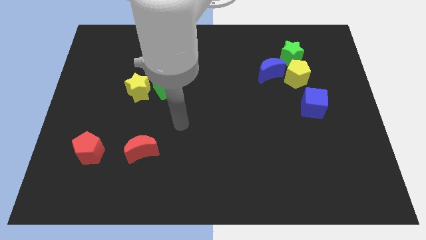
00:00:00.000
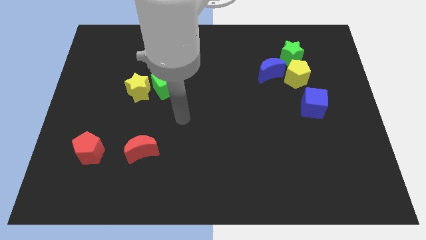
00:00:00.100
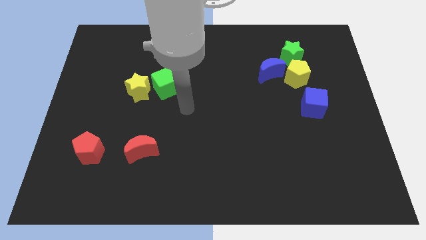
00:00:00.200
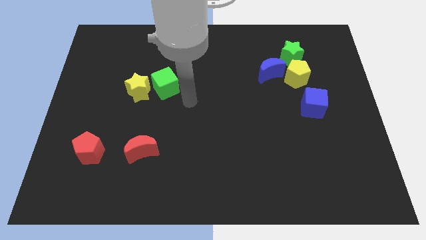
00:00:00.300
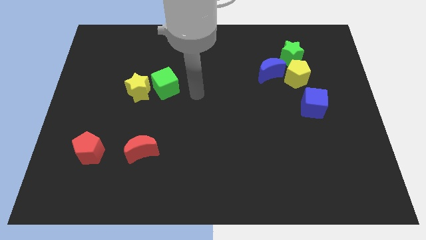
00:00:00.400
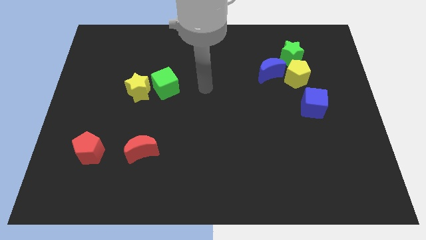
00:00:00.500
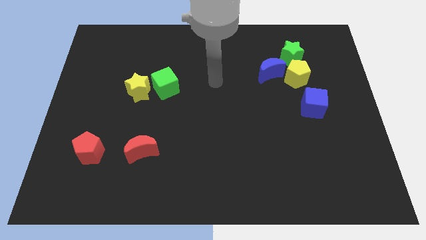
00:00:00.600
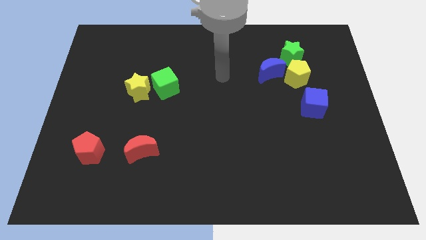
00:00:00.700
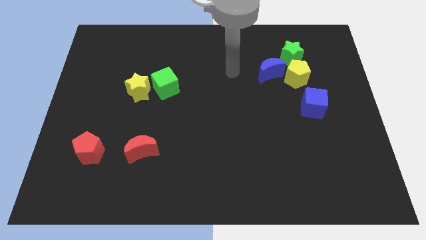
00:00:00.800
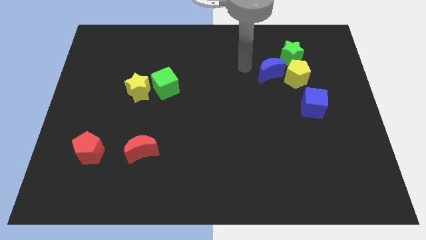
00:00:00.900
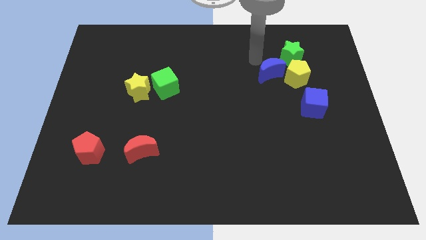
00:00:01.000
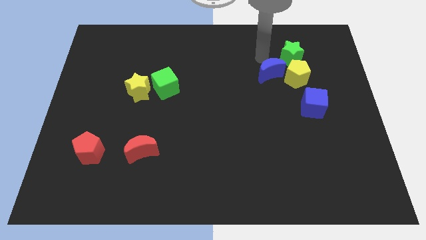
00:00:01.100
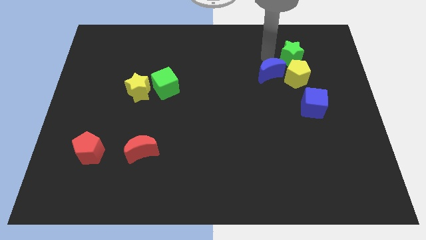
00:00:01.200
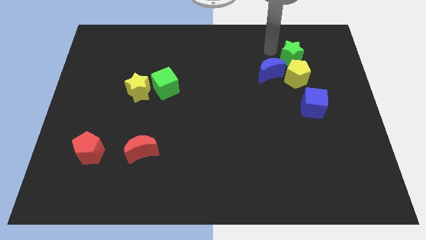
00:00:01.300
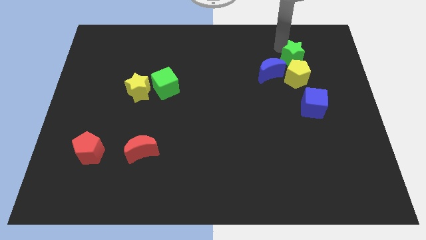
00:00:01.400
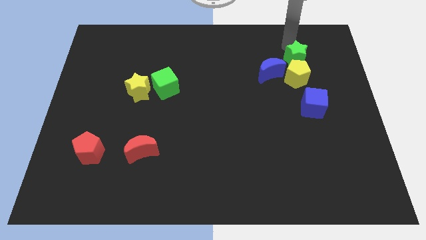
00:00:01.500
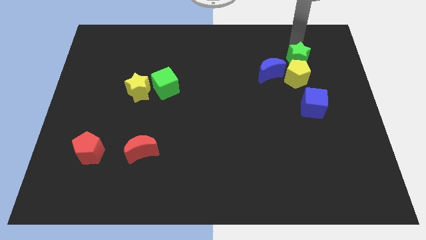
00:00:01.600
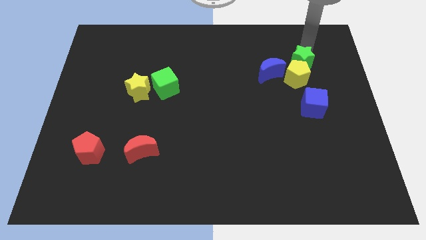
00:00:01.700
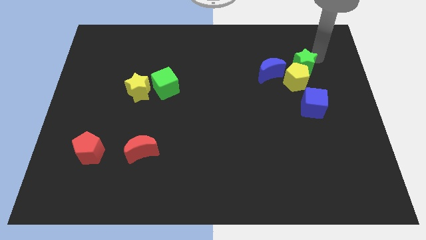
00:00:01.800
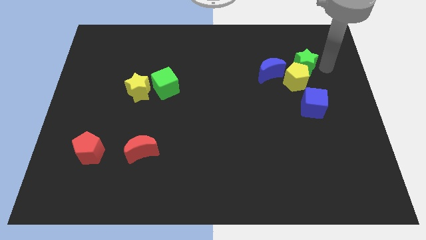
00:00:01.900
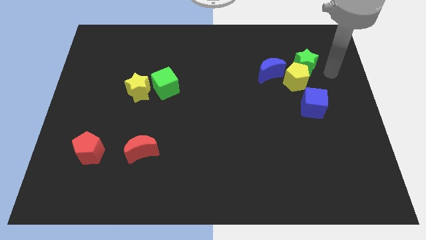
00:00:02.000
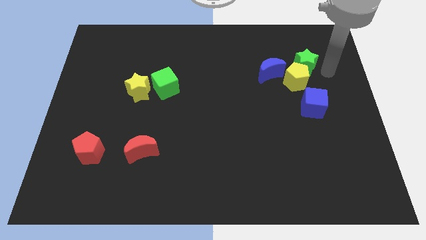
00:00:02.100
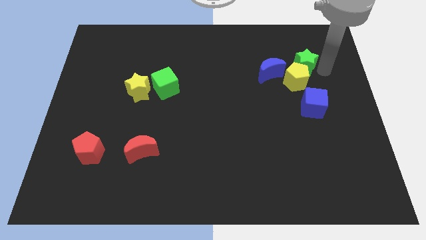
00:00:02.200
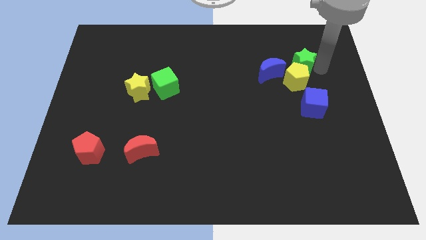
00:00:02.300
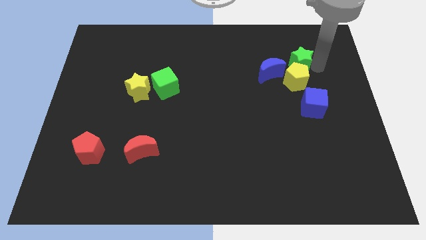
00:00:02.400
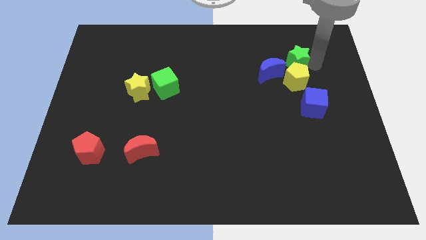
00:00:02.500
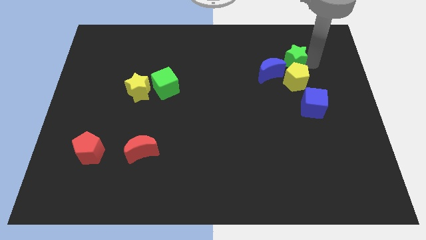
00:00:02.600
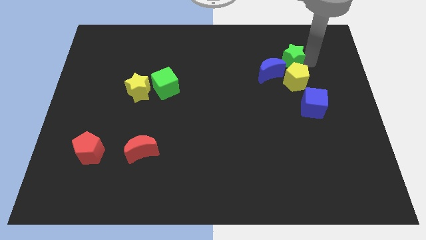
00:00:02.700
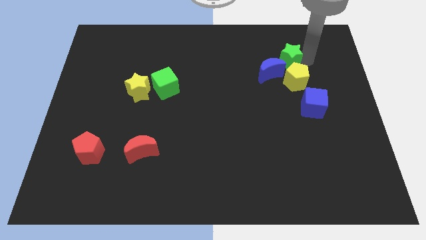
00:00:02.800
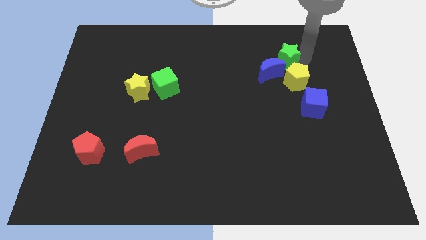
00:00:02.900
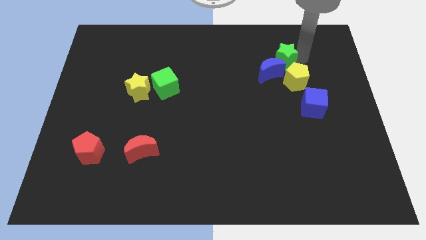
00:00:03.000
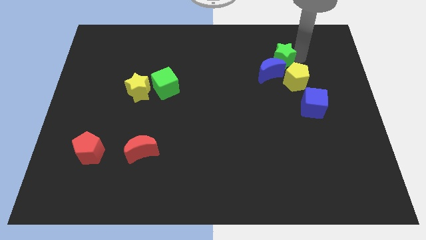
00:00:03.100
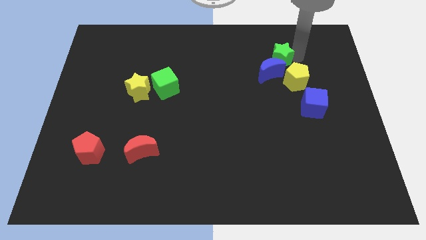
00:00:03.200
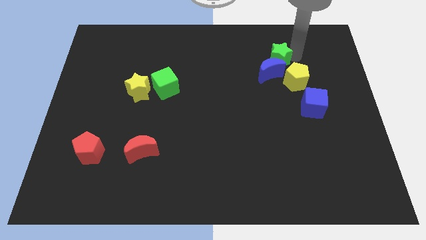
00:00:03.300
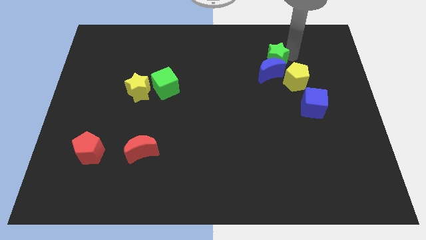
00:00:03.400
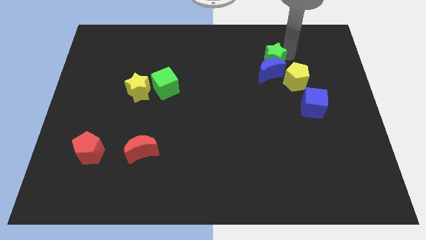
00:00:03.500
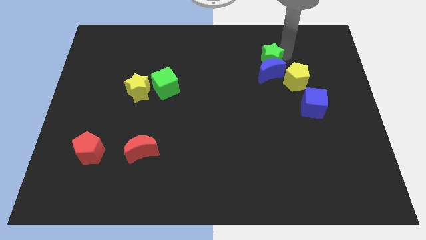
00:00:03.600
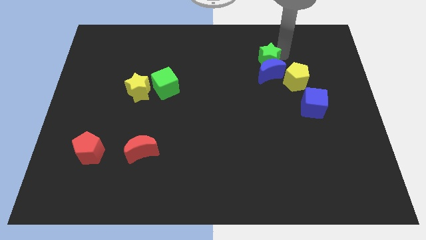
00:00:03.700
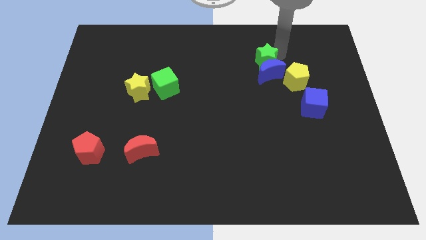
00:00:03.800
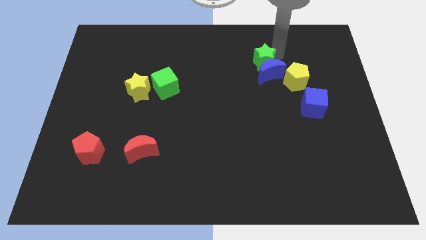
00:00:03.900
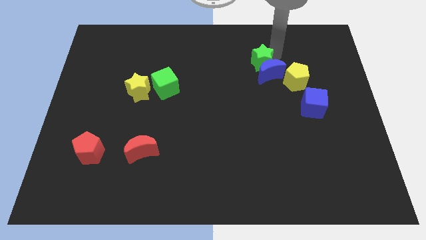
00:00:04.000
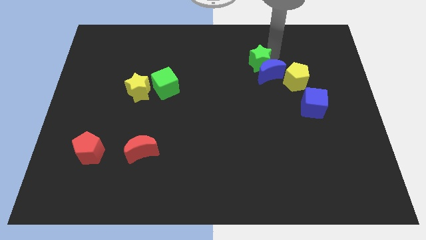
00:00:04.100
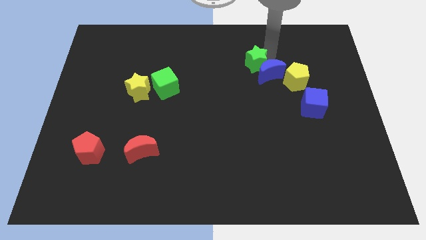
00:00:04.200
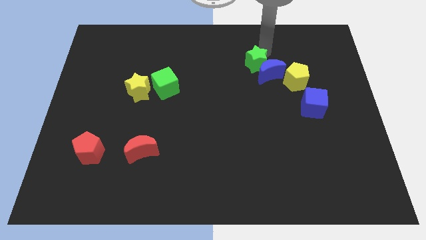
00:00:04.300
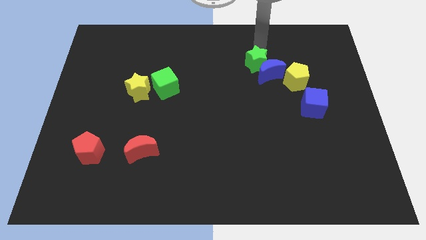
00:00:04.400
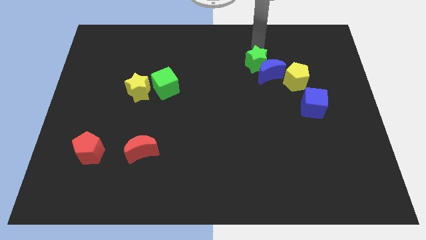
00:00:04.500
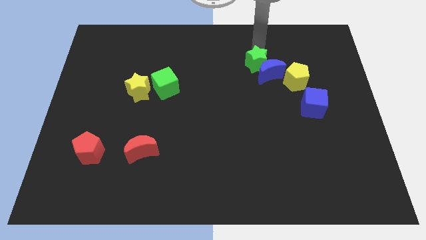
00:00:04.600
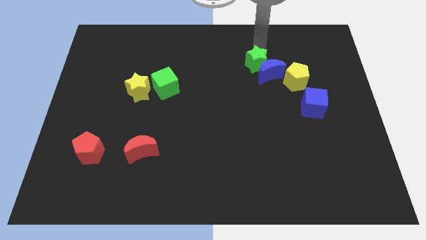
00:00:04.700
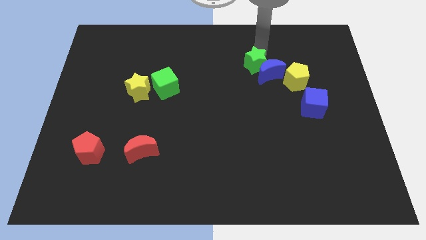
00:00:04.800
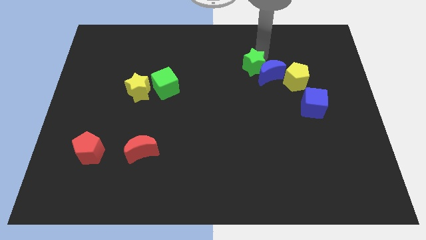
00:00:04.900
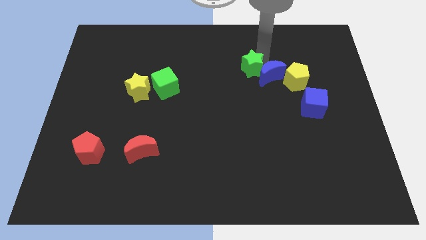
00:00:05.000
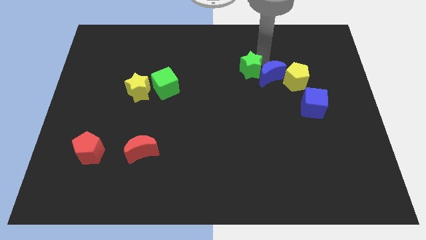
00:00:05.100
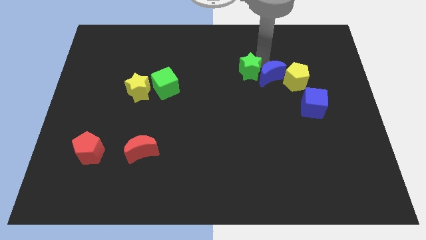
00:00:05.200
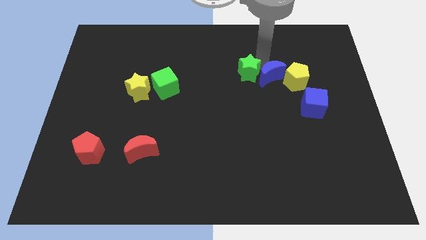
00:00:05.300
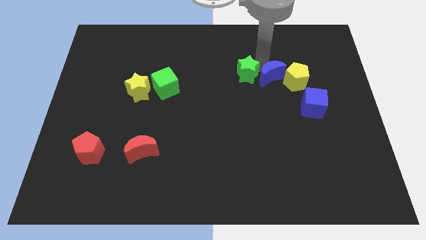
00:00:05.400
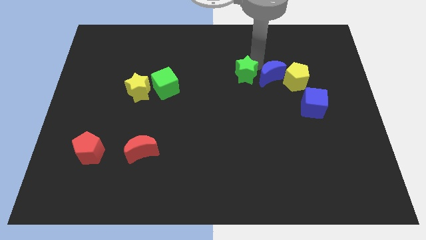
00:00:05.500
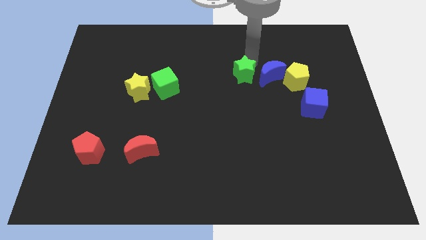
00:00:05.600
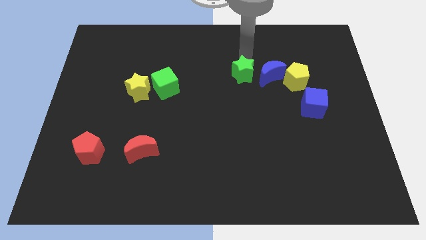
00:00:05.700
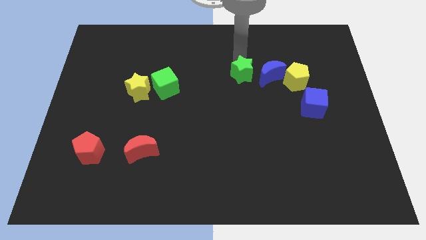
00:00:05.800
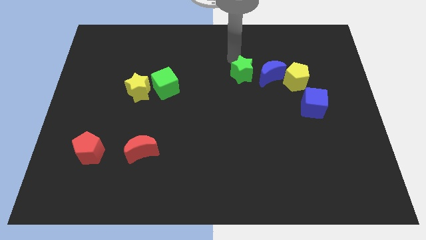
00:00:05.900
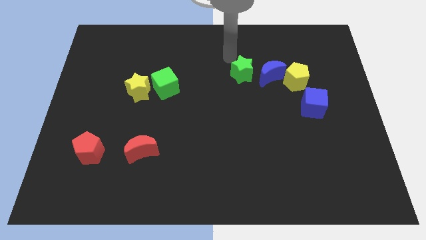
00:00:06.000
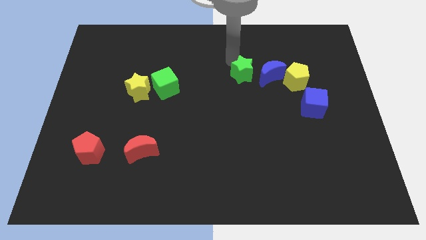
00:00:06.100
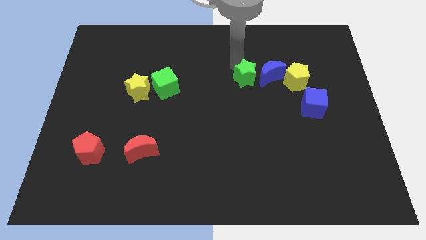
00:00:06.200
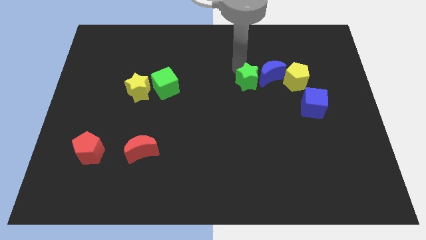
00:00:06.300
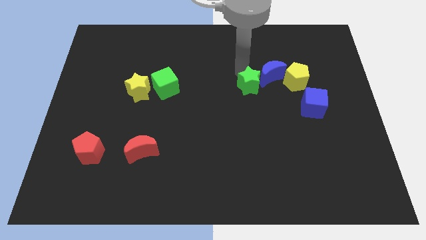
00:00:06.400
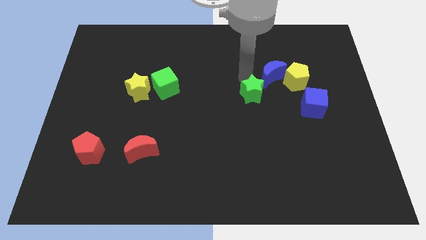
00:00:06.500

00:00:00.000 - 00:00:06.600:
push the green star left of the blue cube

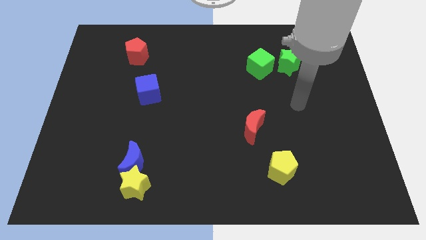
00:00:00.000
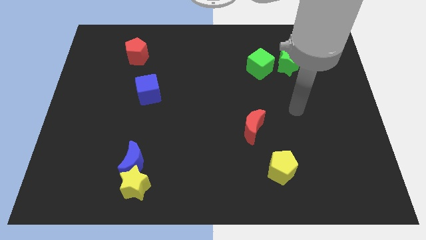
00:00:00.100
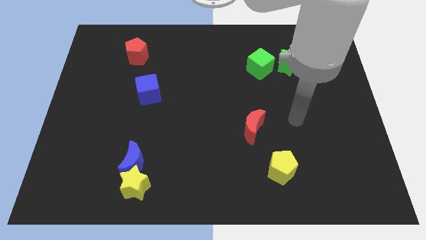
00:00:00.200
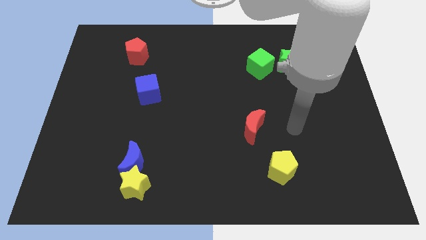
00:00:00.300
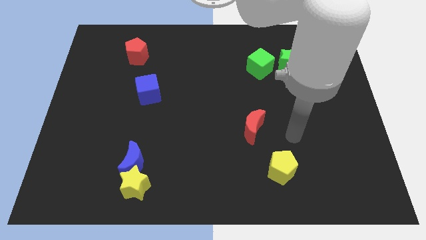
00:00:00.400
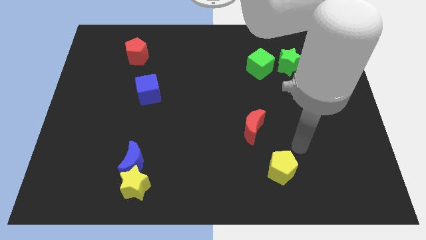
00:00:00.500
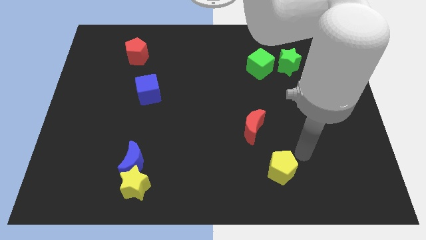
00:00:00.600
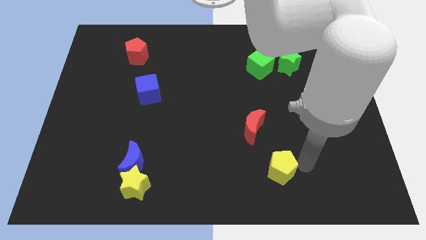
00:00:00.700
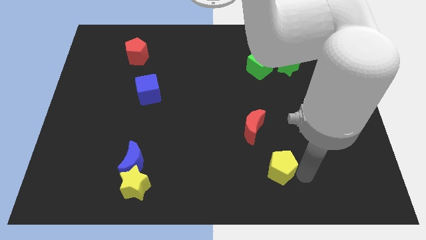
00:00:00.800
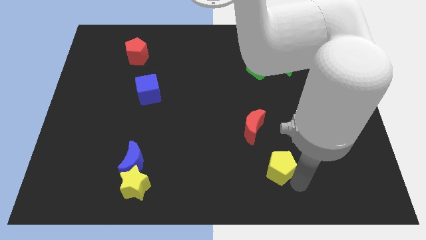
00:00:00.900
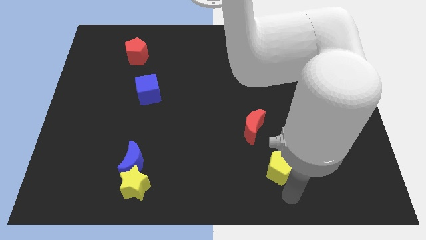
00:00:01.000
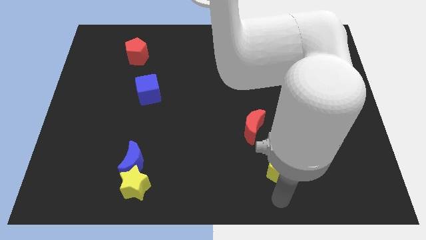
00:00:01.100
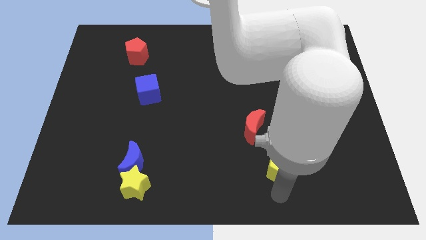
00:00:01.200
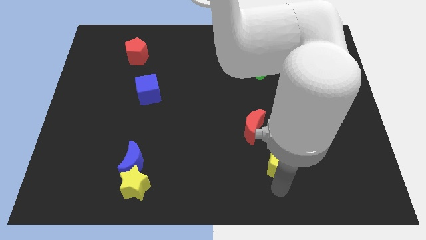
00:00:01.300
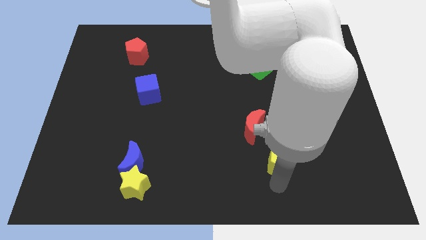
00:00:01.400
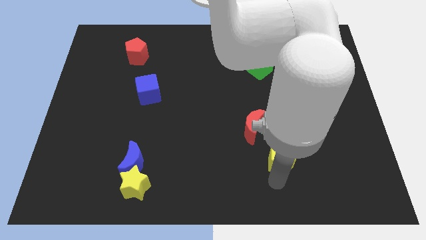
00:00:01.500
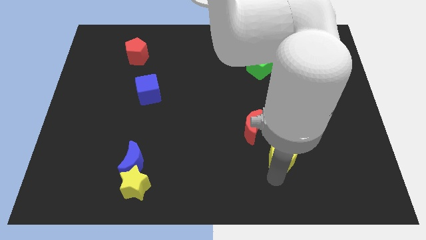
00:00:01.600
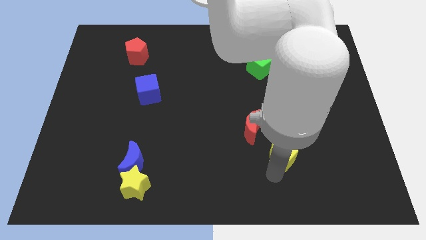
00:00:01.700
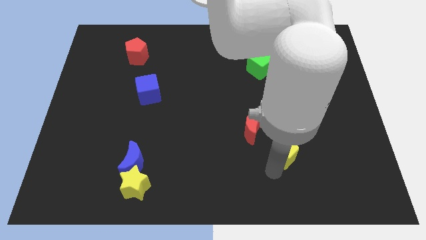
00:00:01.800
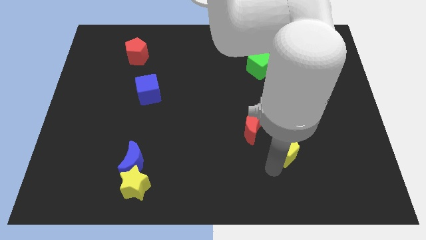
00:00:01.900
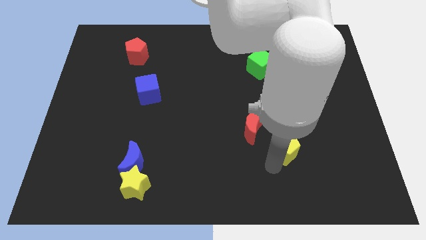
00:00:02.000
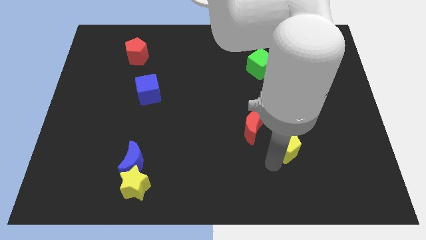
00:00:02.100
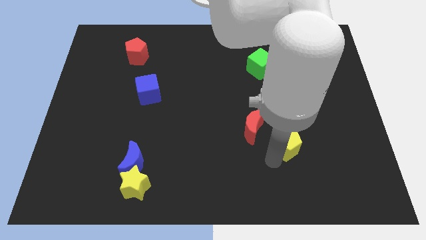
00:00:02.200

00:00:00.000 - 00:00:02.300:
put the yellow pentagon to the right side of the red moon
